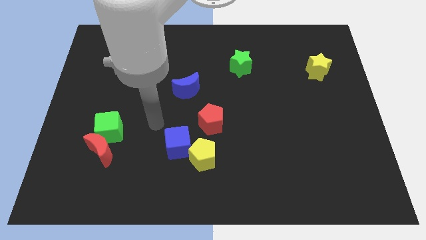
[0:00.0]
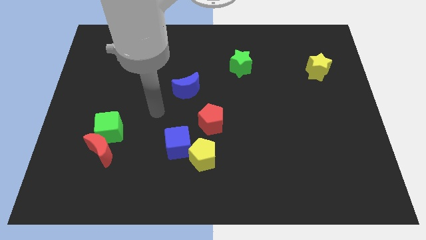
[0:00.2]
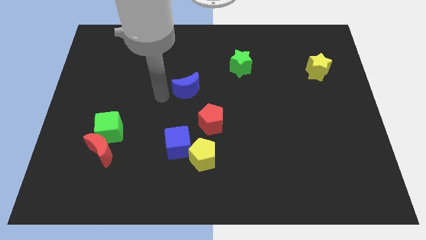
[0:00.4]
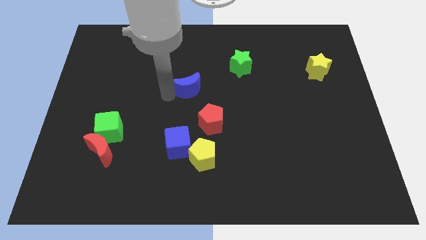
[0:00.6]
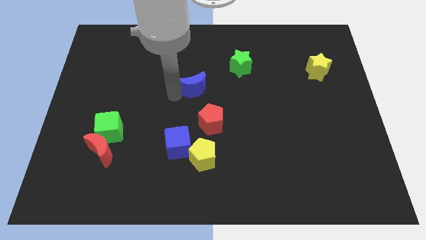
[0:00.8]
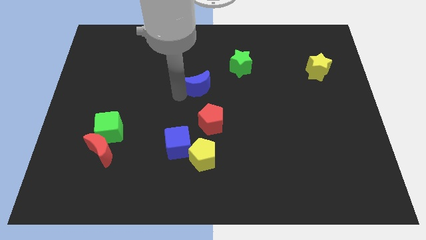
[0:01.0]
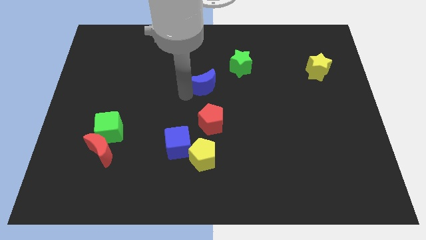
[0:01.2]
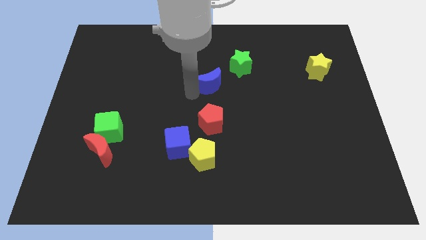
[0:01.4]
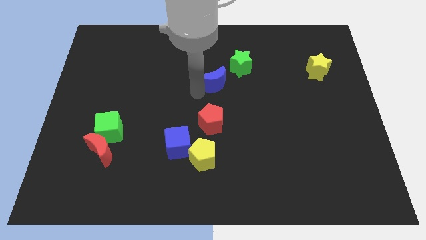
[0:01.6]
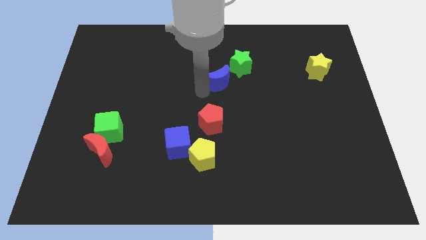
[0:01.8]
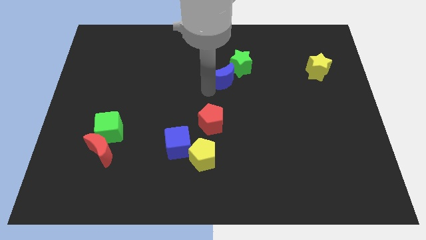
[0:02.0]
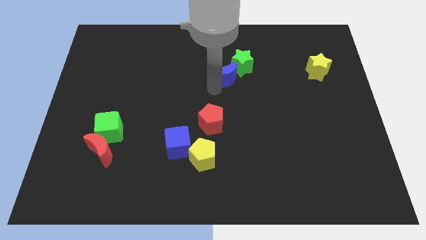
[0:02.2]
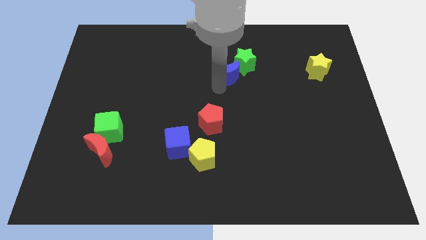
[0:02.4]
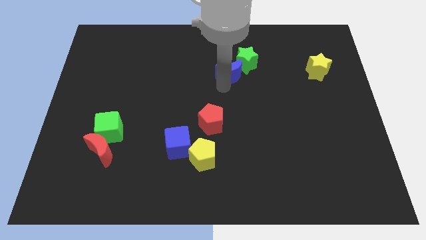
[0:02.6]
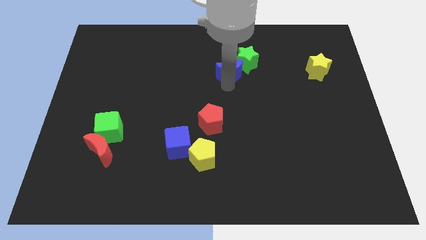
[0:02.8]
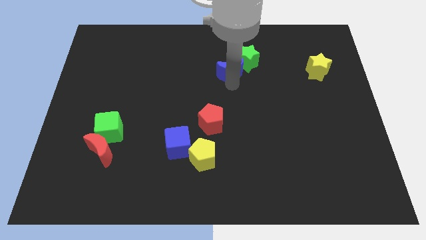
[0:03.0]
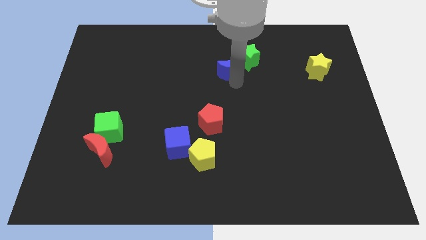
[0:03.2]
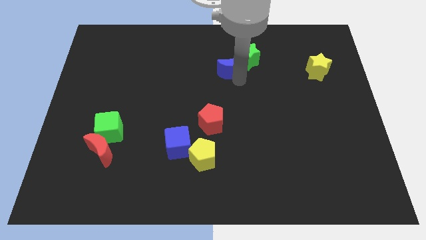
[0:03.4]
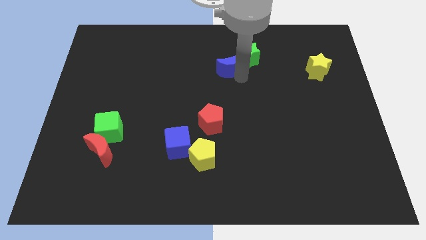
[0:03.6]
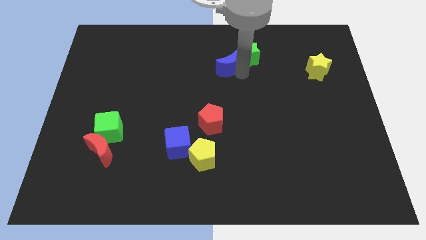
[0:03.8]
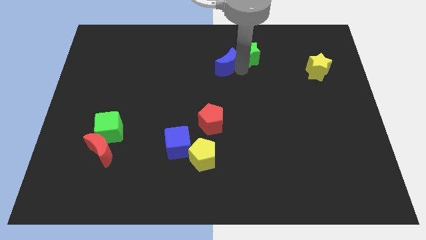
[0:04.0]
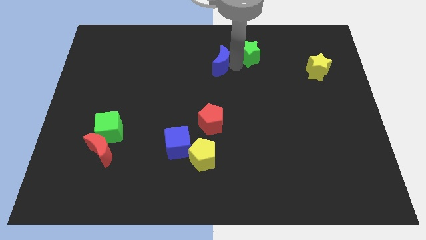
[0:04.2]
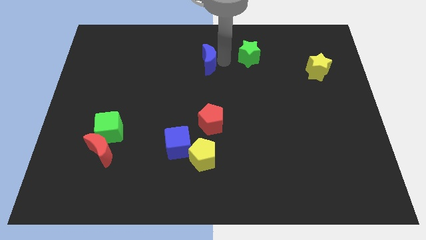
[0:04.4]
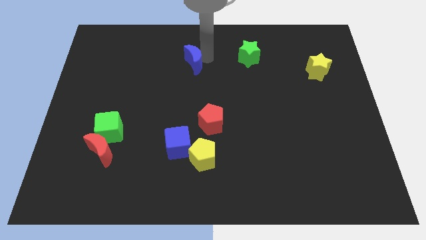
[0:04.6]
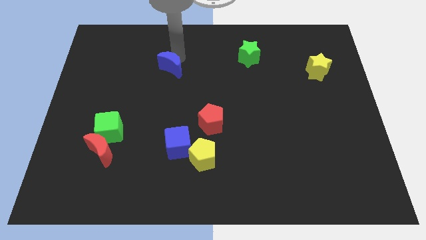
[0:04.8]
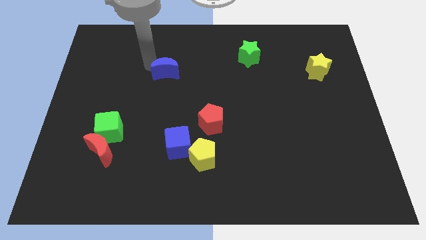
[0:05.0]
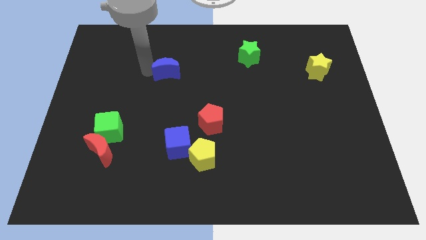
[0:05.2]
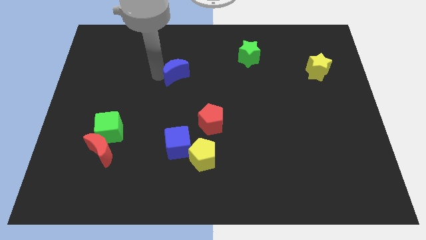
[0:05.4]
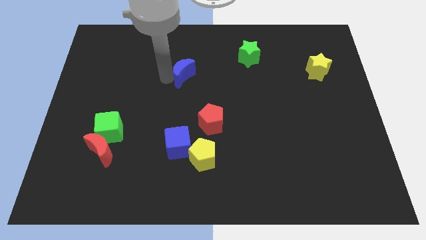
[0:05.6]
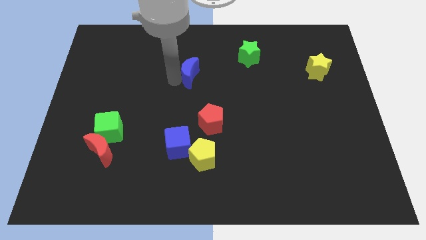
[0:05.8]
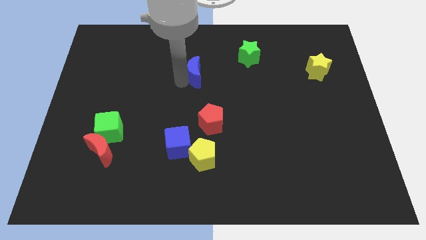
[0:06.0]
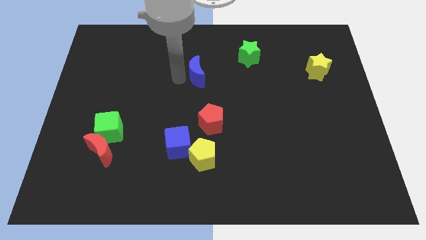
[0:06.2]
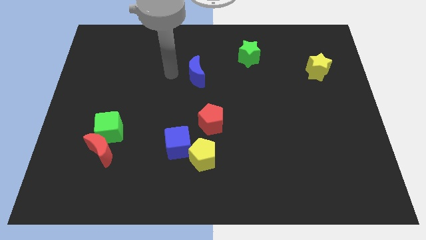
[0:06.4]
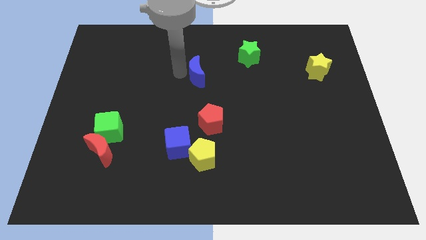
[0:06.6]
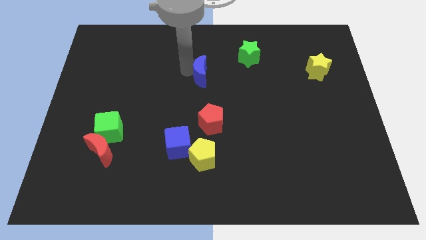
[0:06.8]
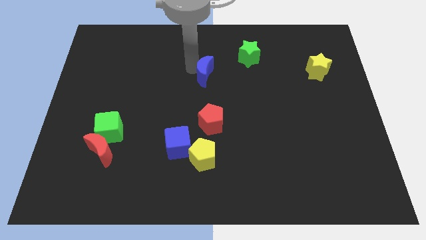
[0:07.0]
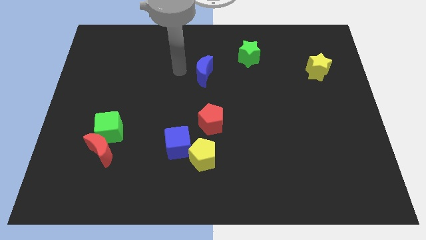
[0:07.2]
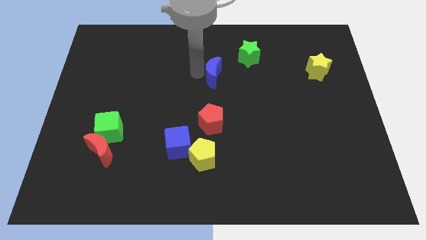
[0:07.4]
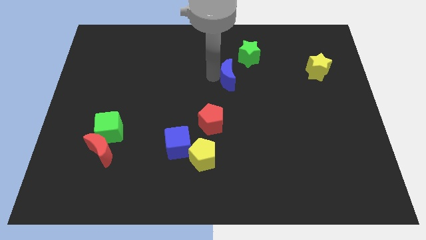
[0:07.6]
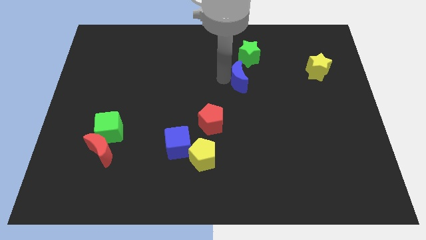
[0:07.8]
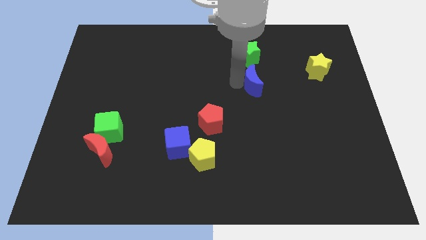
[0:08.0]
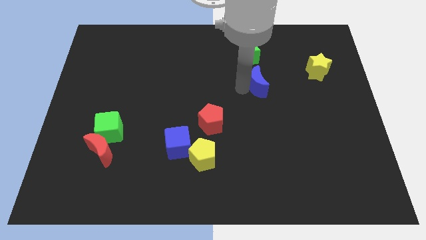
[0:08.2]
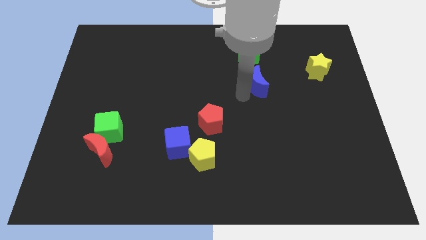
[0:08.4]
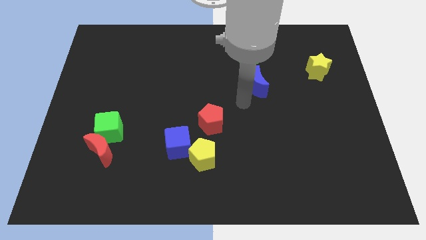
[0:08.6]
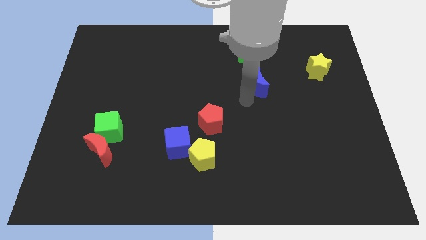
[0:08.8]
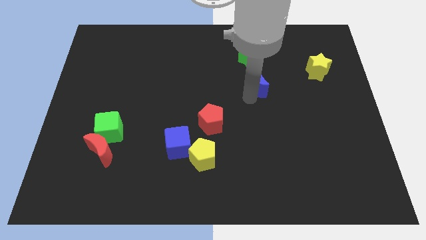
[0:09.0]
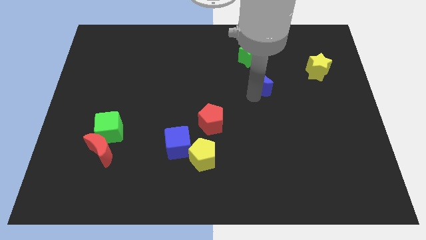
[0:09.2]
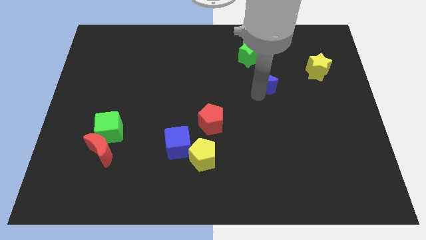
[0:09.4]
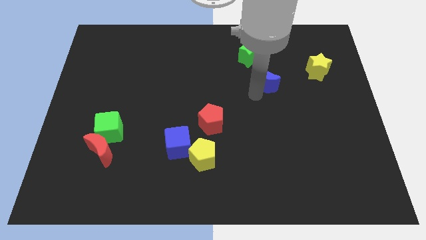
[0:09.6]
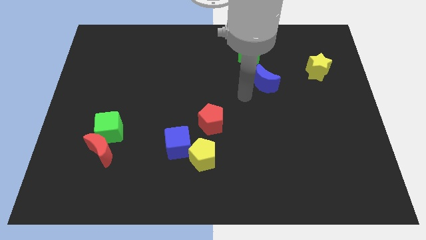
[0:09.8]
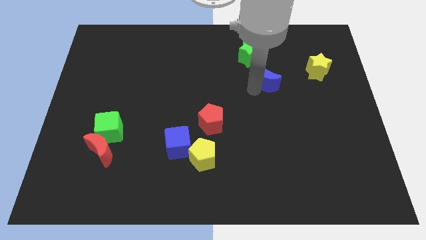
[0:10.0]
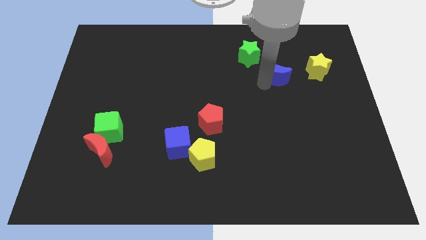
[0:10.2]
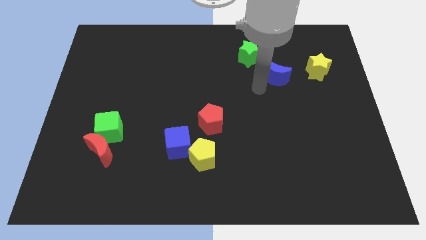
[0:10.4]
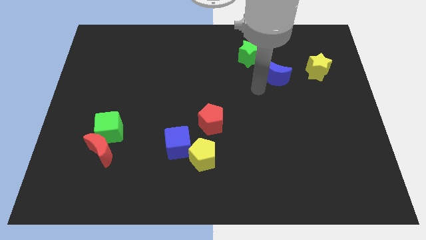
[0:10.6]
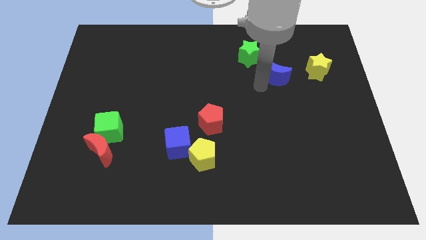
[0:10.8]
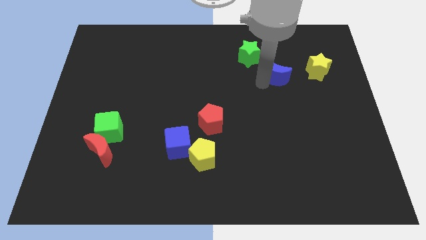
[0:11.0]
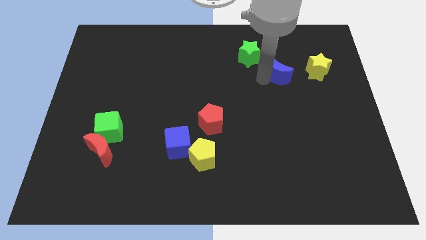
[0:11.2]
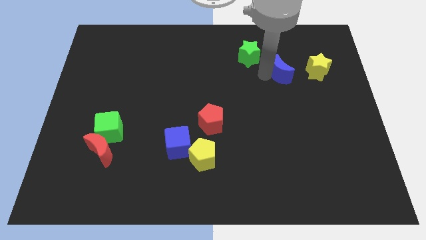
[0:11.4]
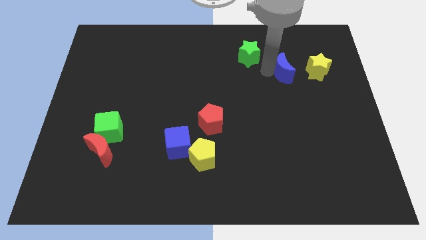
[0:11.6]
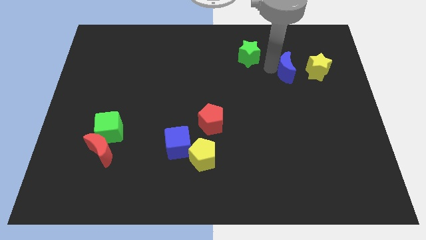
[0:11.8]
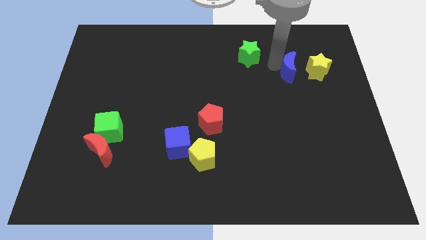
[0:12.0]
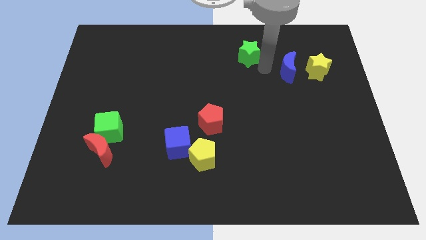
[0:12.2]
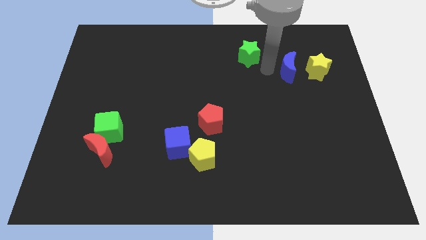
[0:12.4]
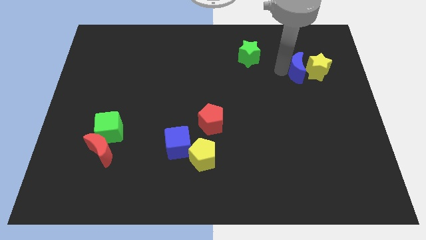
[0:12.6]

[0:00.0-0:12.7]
put the blue moon next to the yellow star

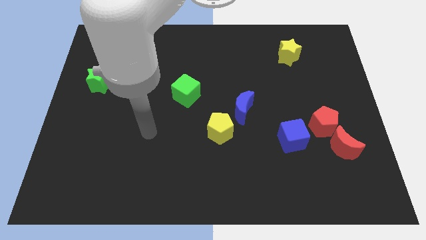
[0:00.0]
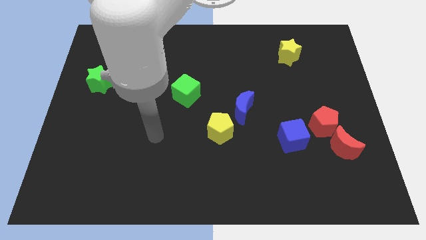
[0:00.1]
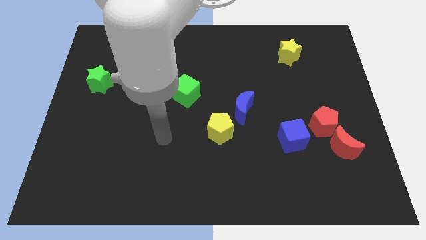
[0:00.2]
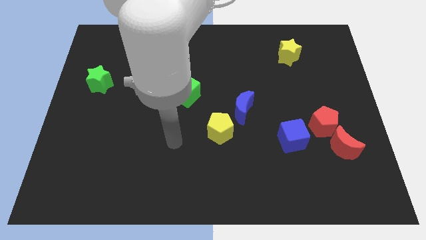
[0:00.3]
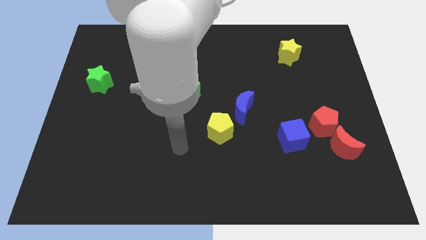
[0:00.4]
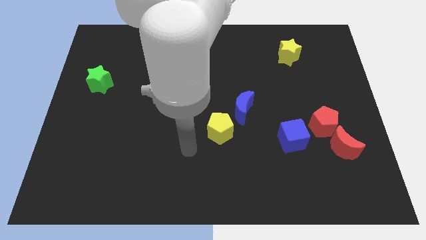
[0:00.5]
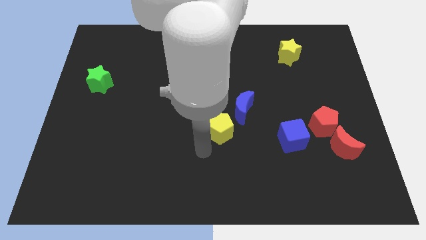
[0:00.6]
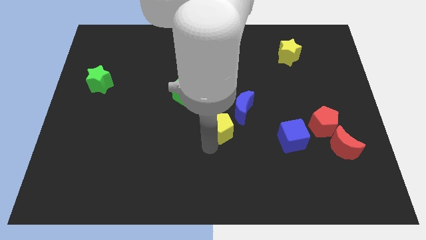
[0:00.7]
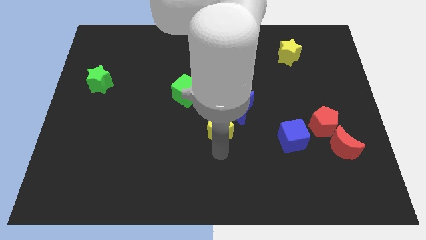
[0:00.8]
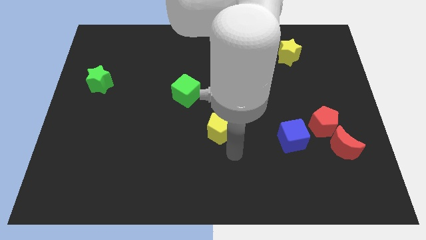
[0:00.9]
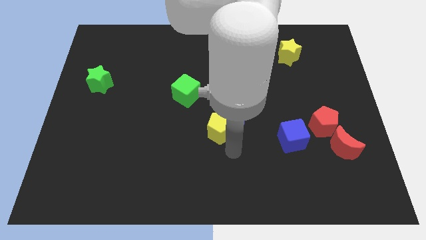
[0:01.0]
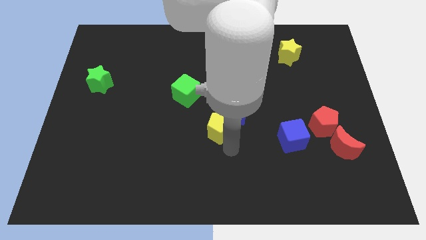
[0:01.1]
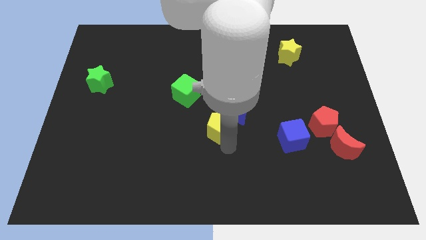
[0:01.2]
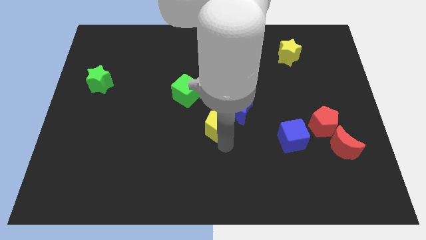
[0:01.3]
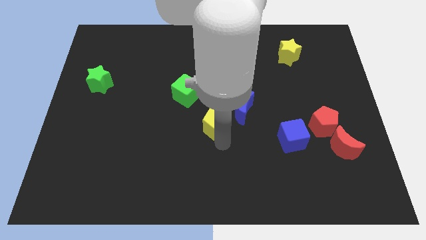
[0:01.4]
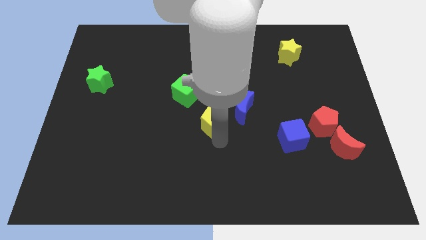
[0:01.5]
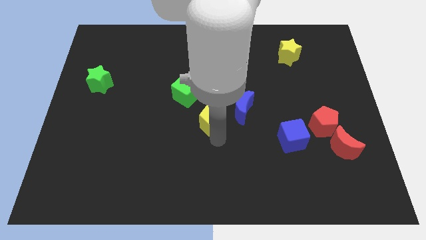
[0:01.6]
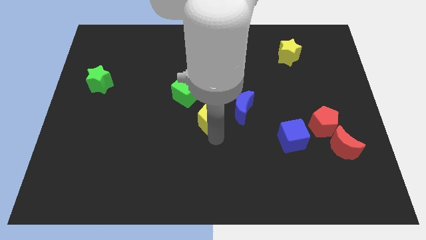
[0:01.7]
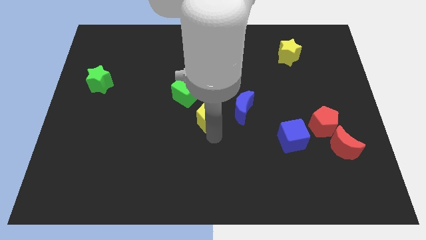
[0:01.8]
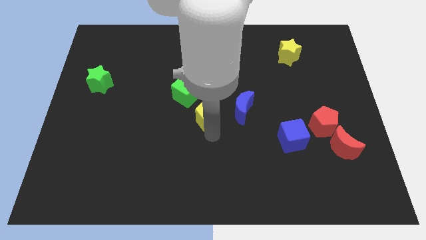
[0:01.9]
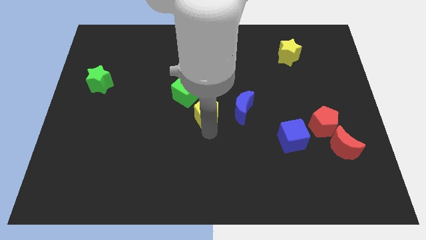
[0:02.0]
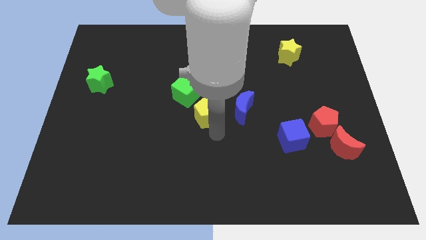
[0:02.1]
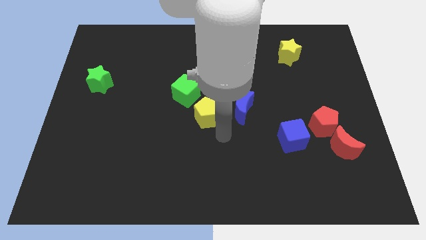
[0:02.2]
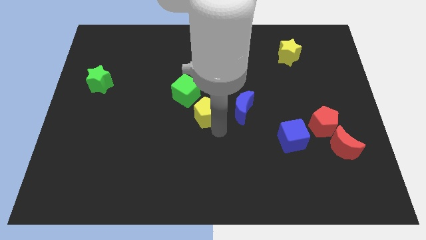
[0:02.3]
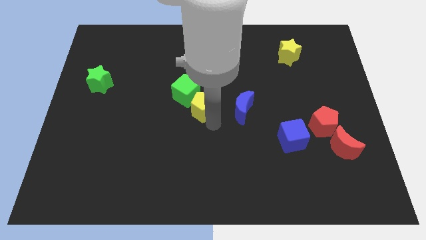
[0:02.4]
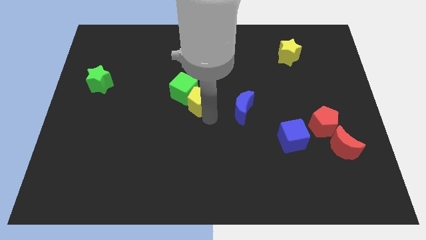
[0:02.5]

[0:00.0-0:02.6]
move the yellow pentagon towards the green cube
